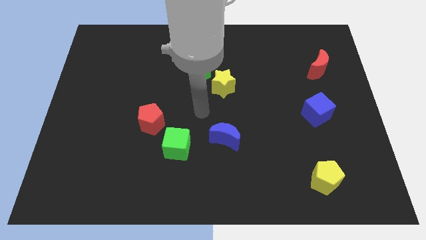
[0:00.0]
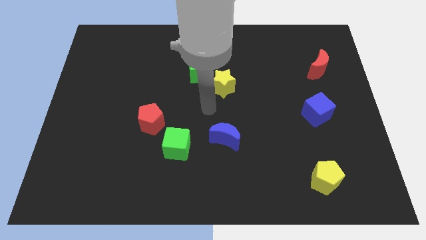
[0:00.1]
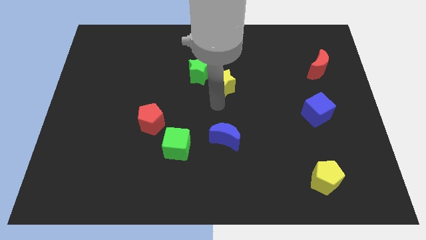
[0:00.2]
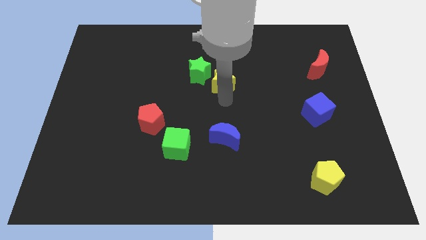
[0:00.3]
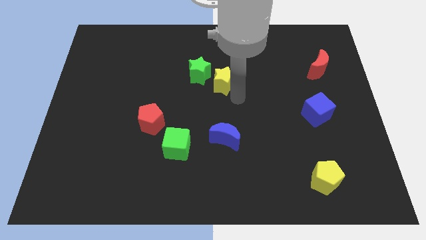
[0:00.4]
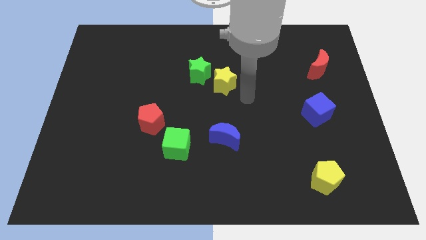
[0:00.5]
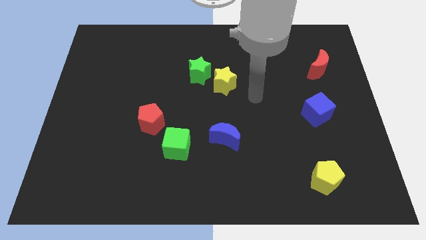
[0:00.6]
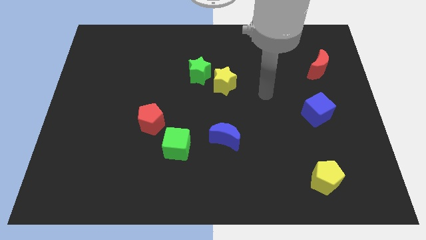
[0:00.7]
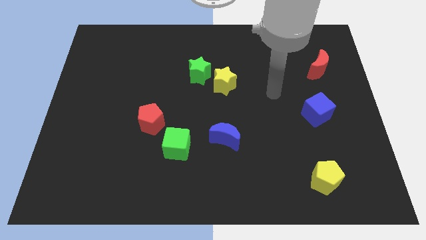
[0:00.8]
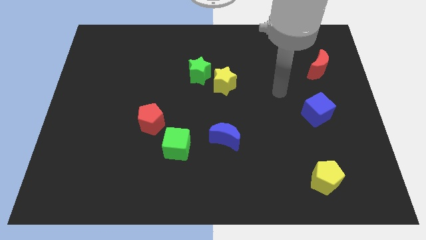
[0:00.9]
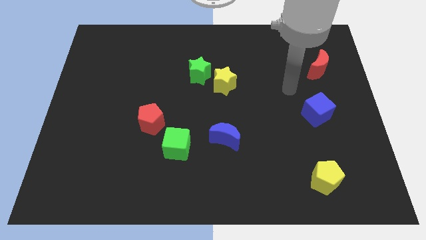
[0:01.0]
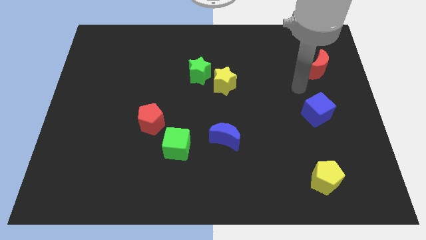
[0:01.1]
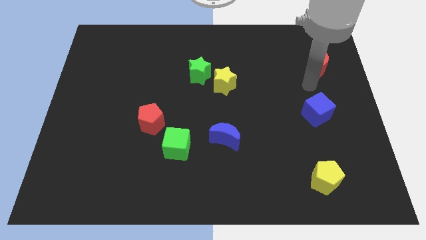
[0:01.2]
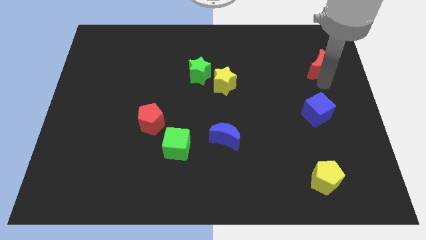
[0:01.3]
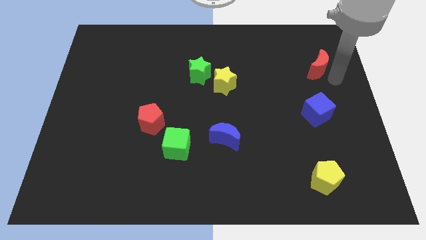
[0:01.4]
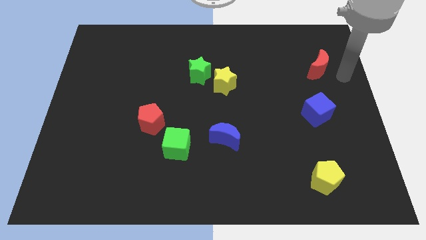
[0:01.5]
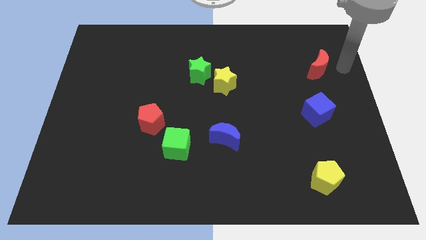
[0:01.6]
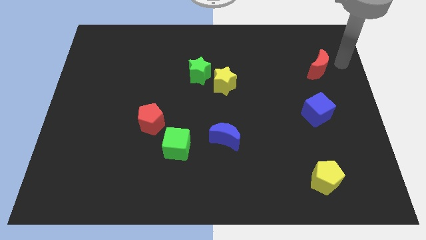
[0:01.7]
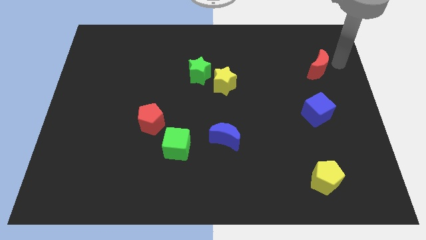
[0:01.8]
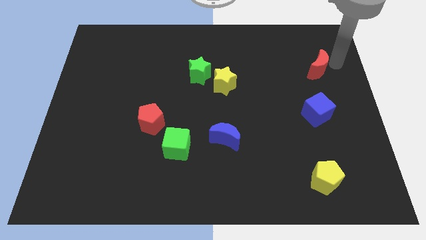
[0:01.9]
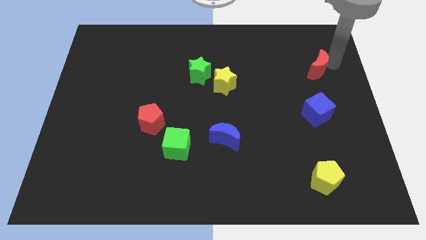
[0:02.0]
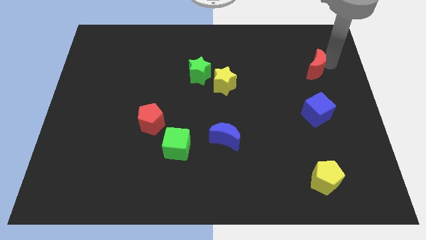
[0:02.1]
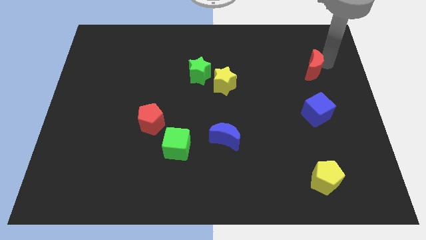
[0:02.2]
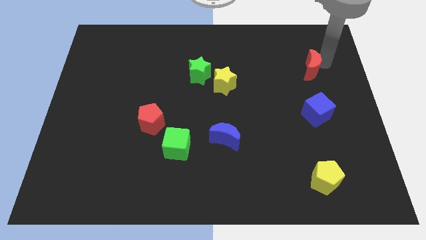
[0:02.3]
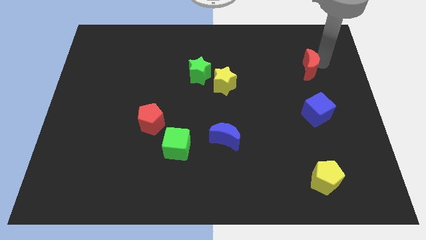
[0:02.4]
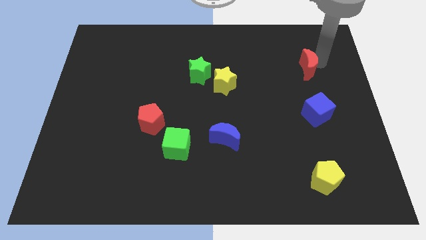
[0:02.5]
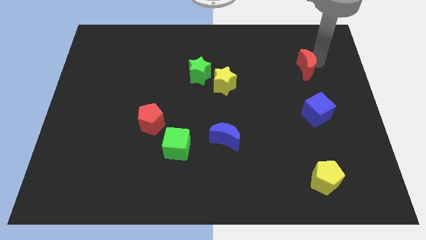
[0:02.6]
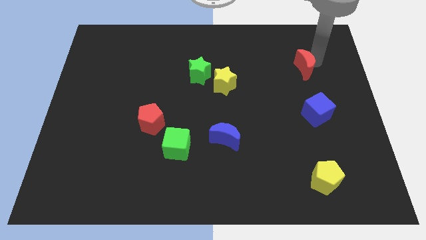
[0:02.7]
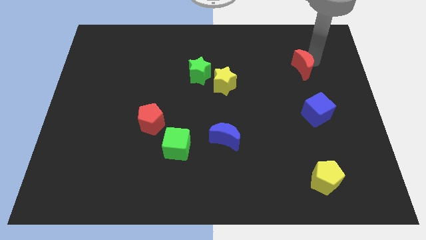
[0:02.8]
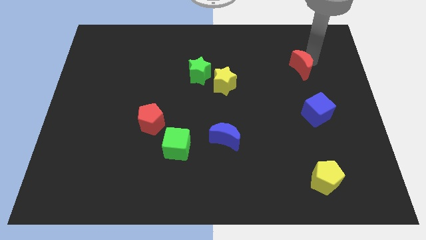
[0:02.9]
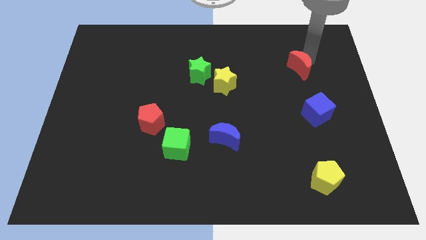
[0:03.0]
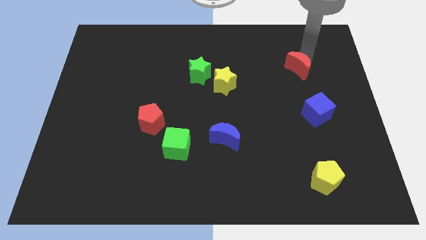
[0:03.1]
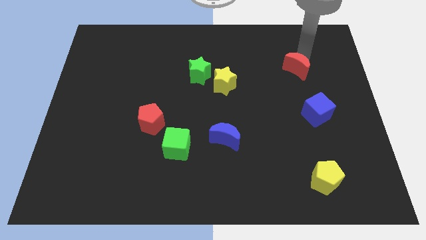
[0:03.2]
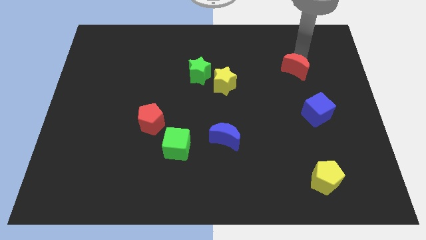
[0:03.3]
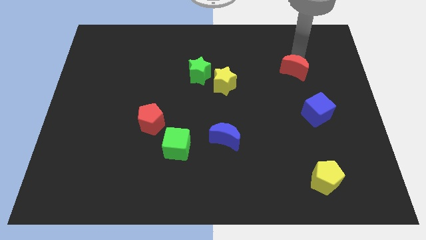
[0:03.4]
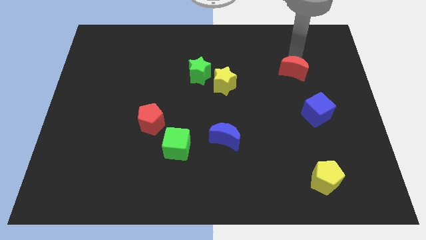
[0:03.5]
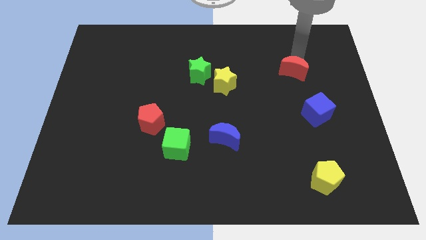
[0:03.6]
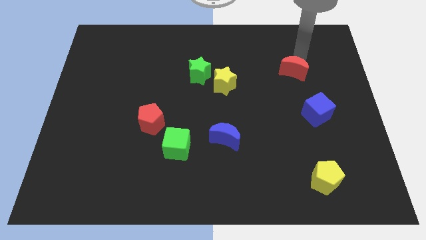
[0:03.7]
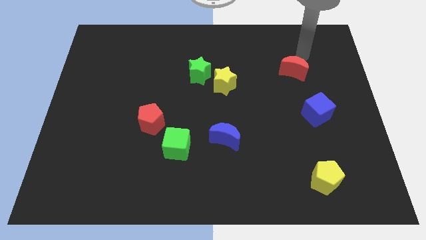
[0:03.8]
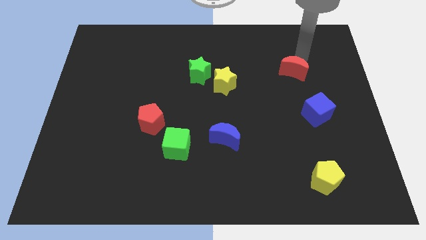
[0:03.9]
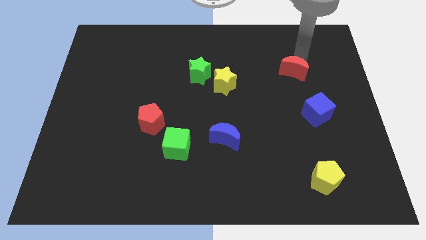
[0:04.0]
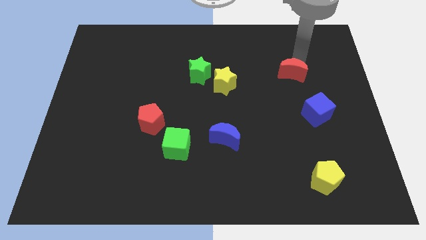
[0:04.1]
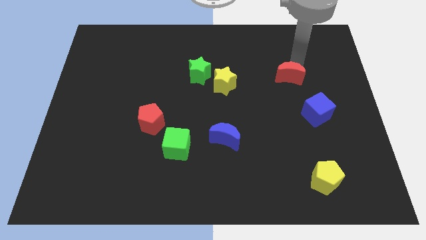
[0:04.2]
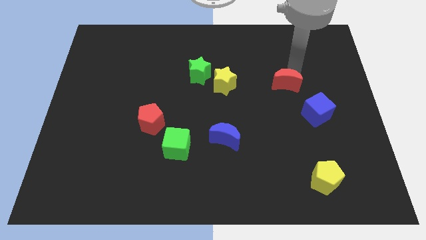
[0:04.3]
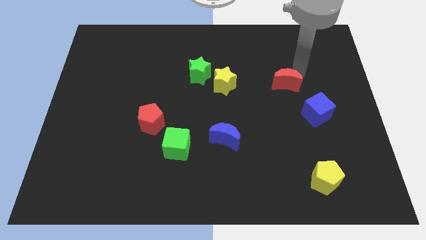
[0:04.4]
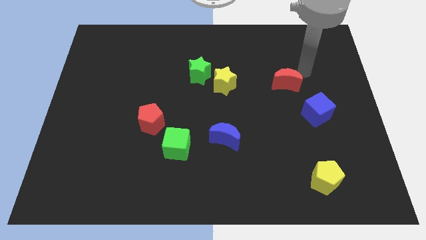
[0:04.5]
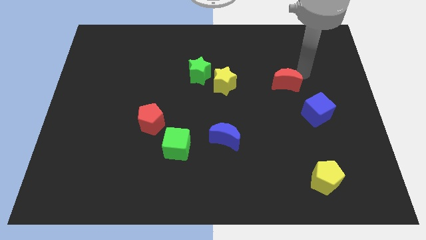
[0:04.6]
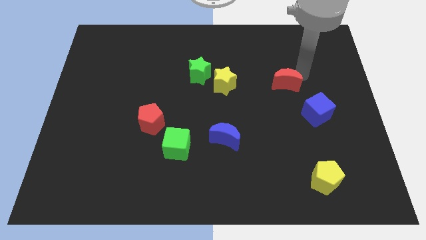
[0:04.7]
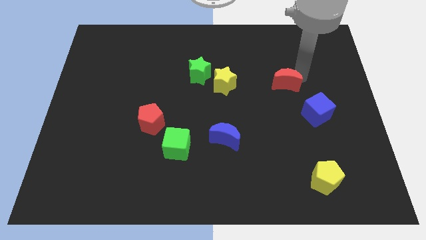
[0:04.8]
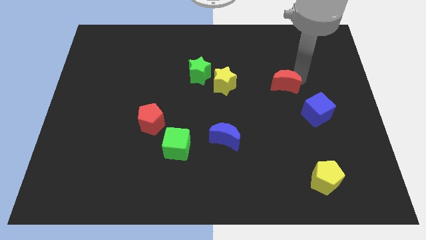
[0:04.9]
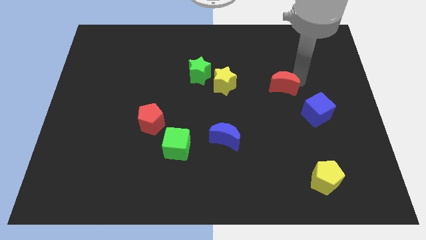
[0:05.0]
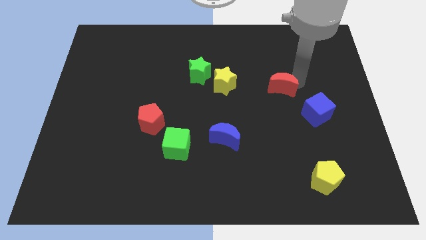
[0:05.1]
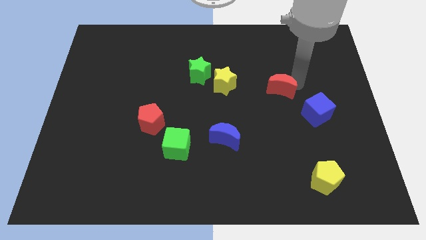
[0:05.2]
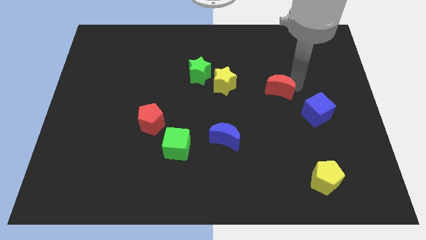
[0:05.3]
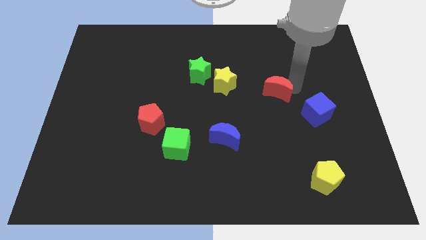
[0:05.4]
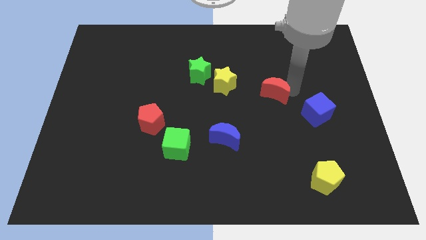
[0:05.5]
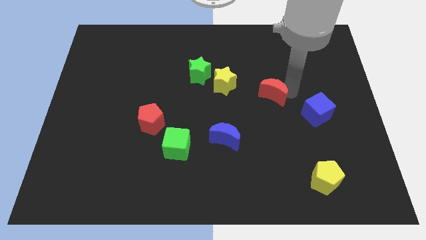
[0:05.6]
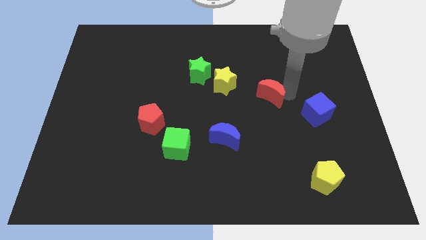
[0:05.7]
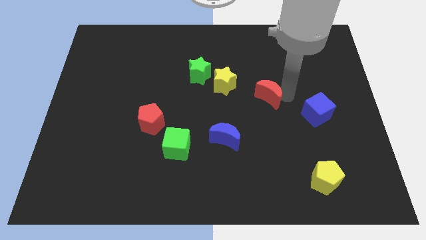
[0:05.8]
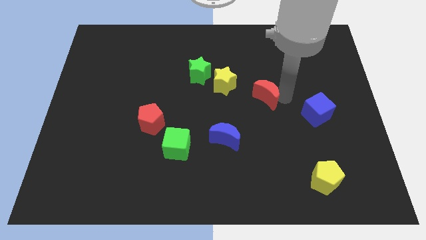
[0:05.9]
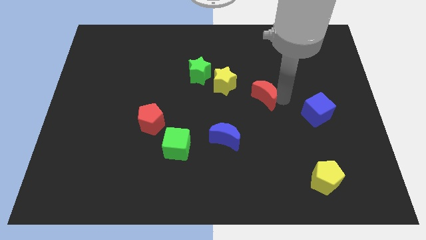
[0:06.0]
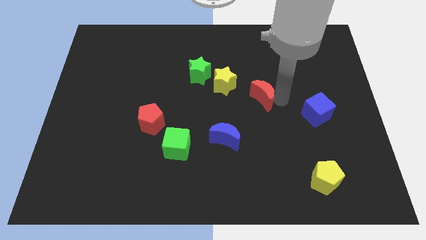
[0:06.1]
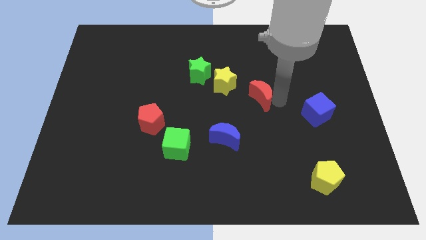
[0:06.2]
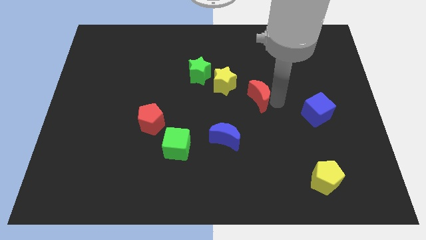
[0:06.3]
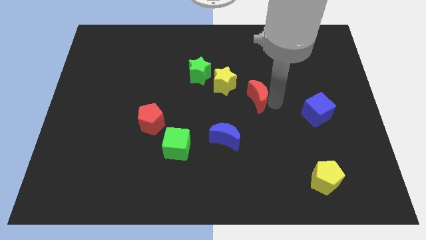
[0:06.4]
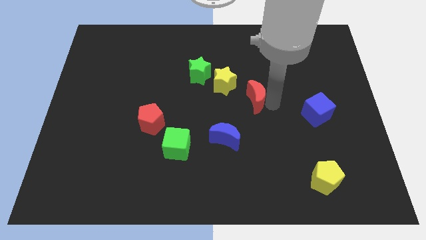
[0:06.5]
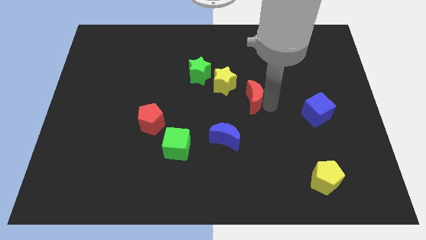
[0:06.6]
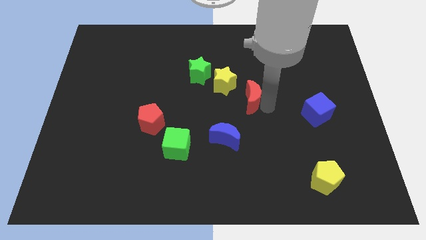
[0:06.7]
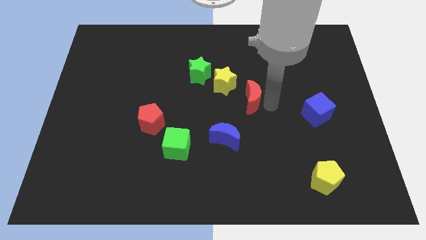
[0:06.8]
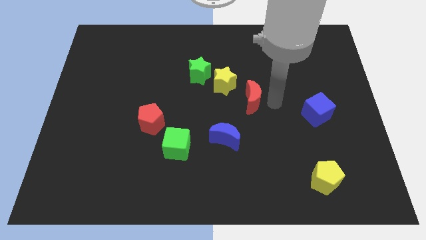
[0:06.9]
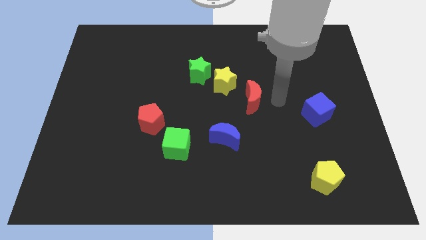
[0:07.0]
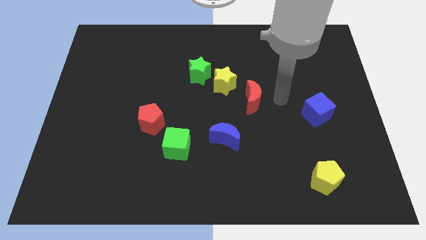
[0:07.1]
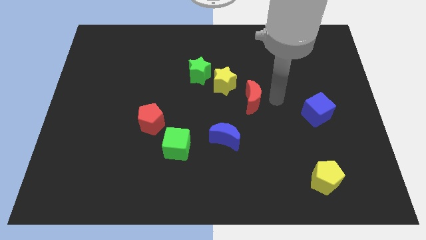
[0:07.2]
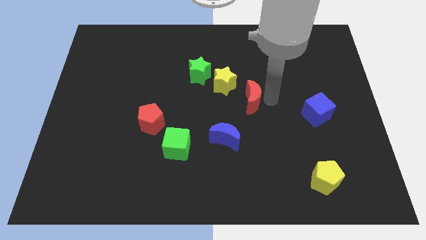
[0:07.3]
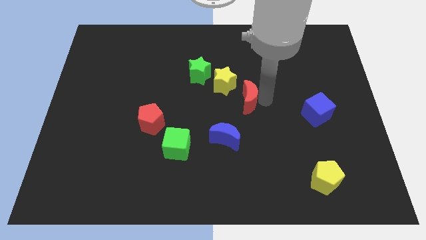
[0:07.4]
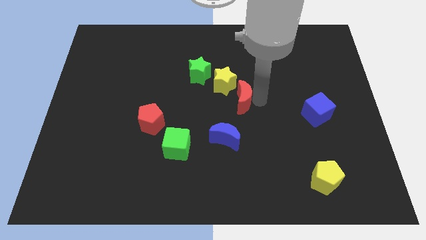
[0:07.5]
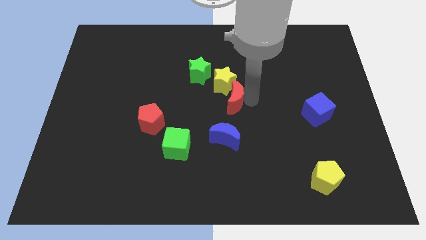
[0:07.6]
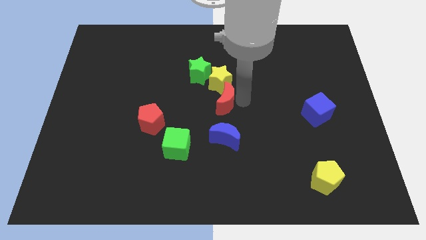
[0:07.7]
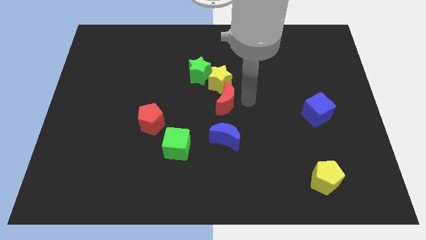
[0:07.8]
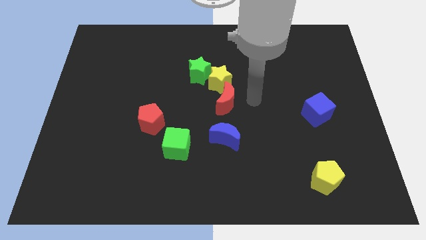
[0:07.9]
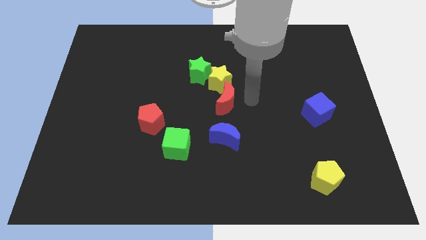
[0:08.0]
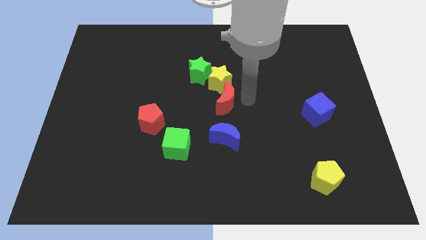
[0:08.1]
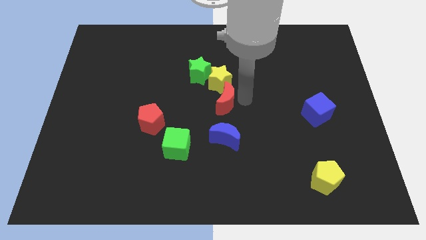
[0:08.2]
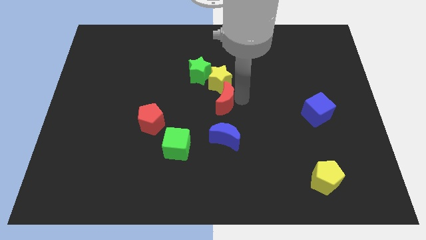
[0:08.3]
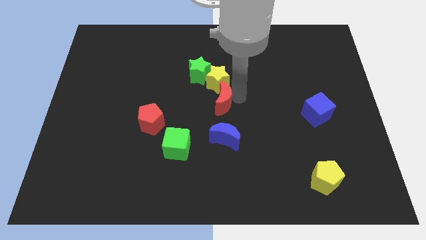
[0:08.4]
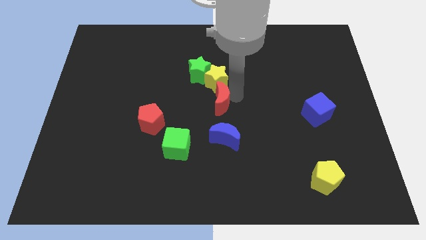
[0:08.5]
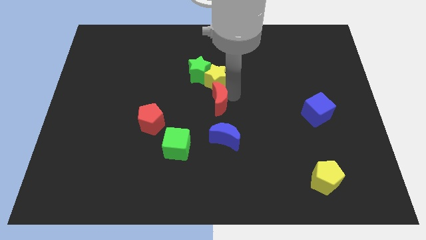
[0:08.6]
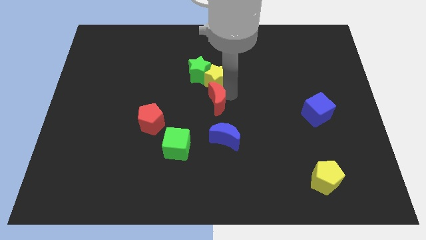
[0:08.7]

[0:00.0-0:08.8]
slide the red moon to the bottom of the green star
